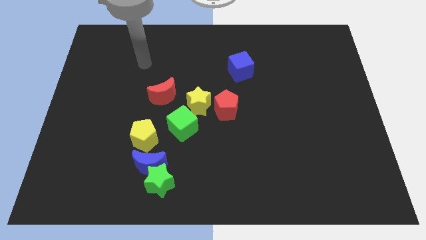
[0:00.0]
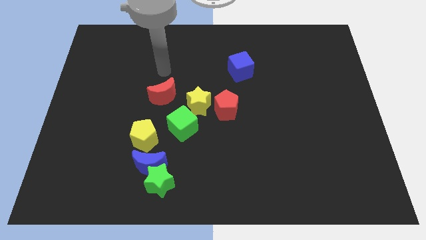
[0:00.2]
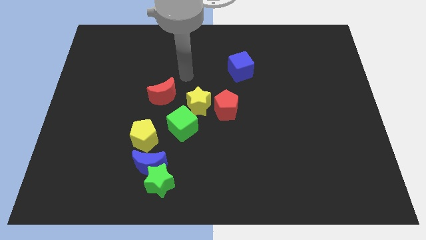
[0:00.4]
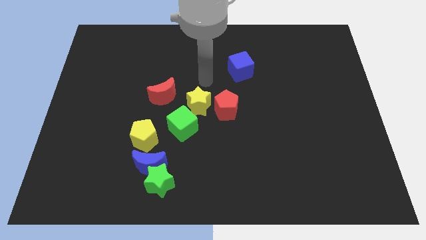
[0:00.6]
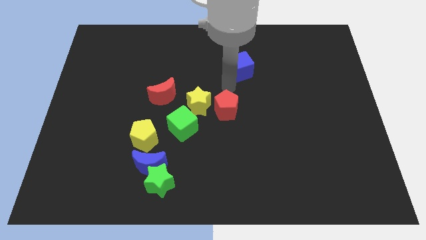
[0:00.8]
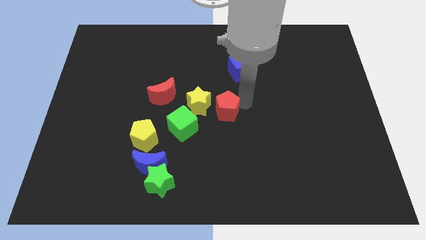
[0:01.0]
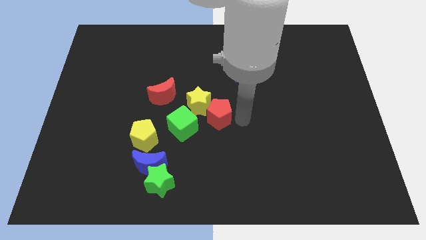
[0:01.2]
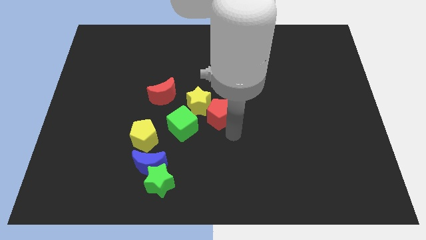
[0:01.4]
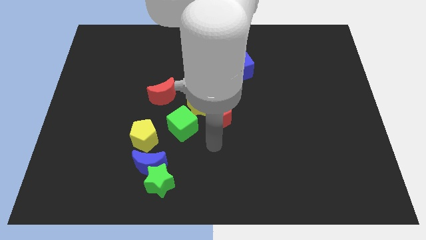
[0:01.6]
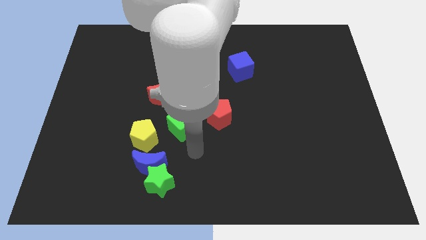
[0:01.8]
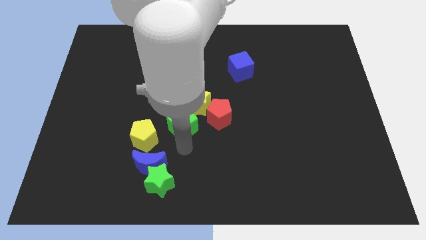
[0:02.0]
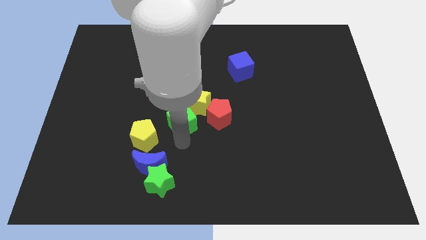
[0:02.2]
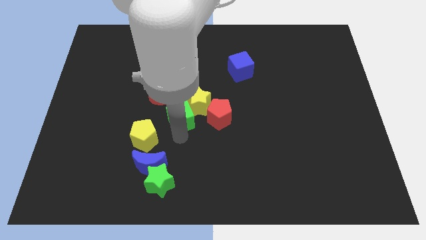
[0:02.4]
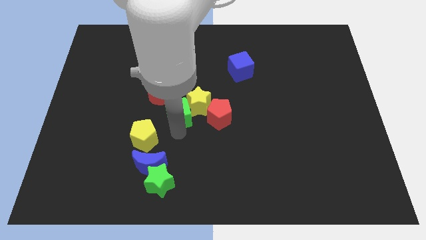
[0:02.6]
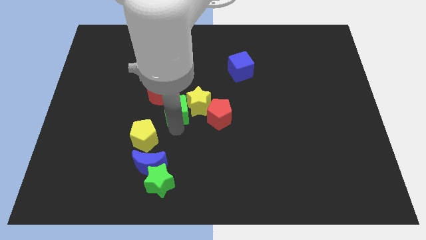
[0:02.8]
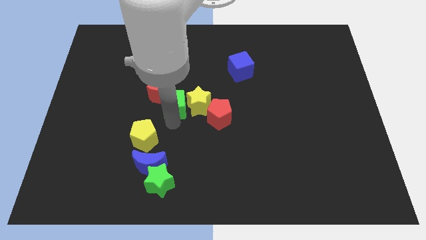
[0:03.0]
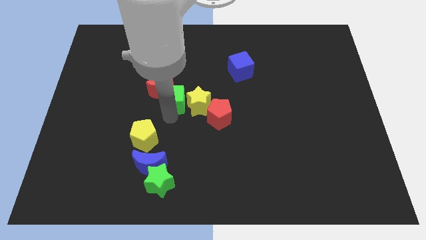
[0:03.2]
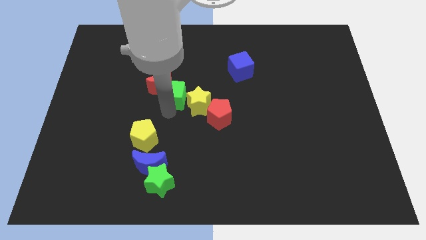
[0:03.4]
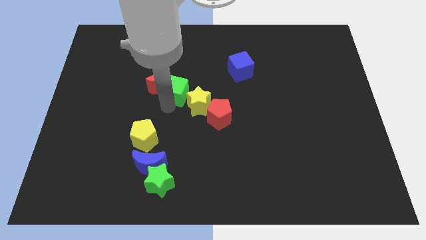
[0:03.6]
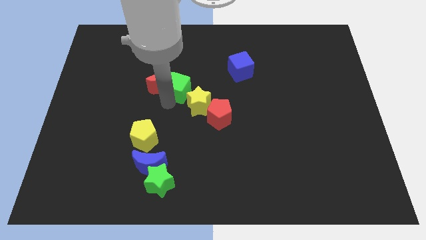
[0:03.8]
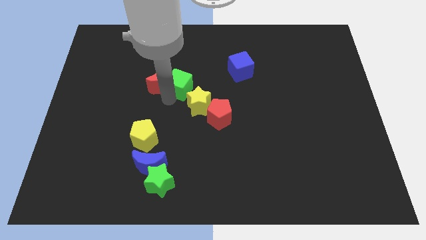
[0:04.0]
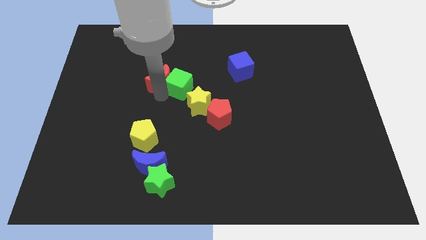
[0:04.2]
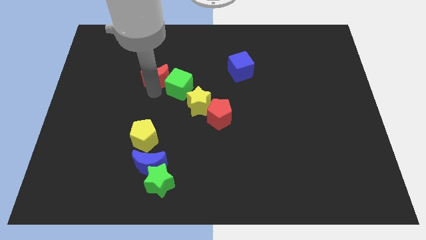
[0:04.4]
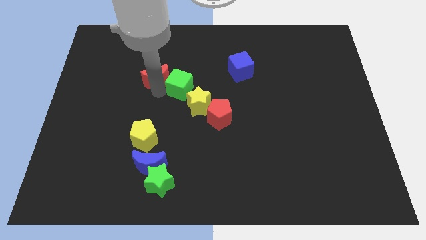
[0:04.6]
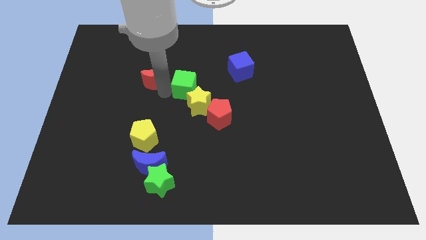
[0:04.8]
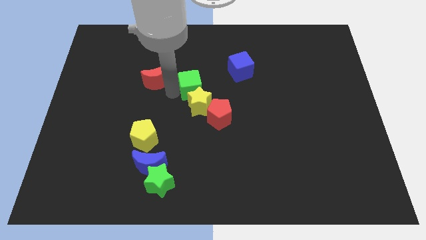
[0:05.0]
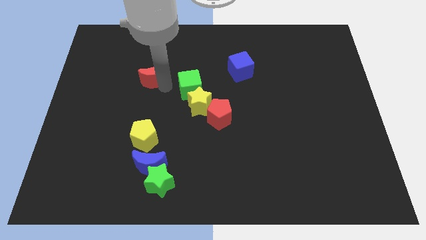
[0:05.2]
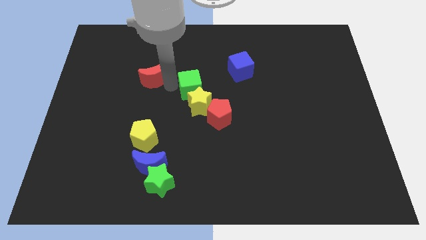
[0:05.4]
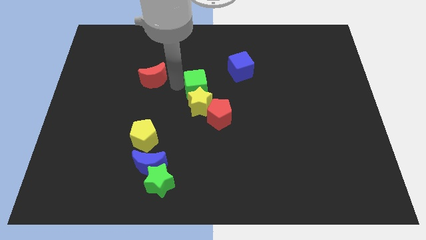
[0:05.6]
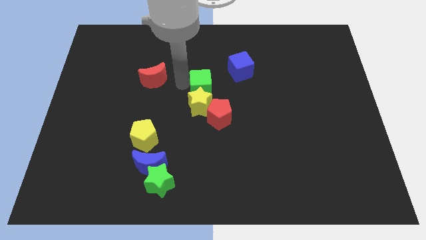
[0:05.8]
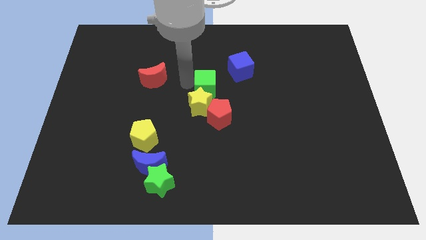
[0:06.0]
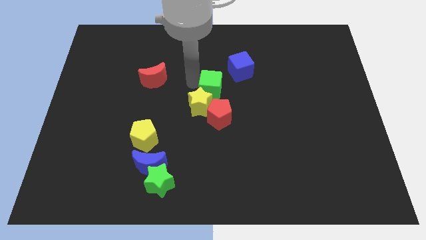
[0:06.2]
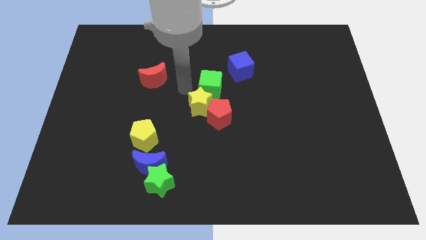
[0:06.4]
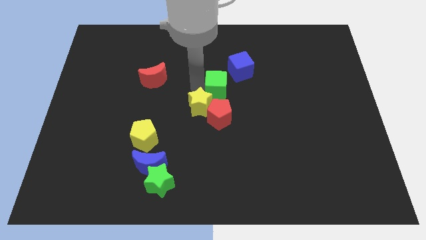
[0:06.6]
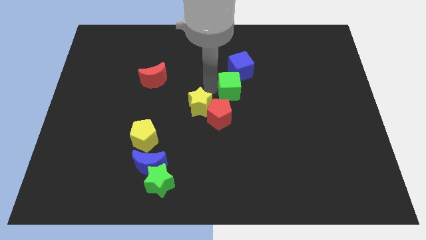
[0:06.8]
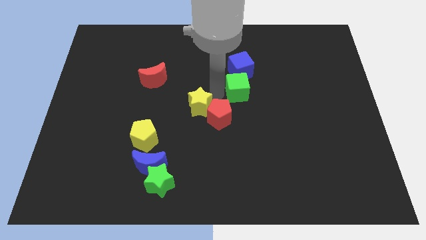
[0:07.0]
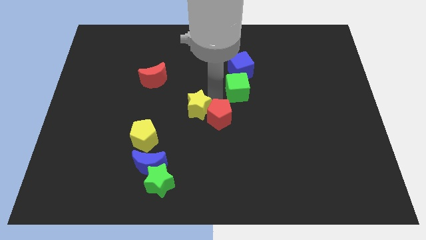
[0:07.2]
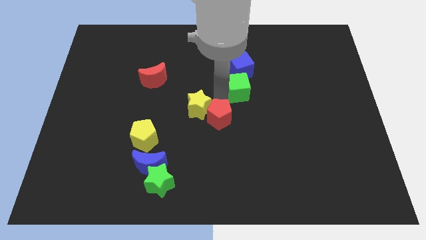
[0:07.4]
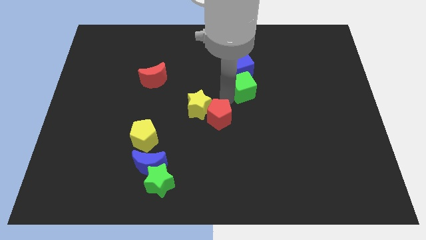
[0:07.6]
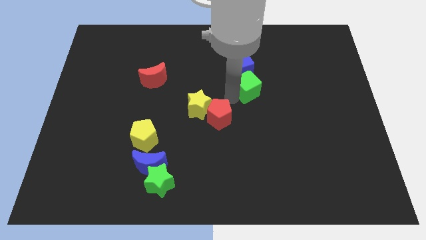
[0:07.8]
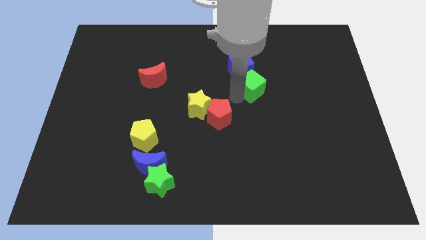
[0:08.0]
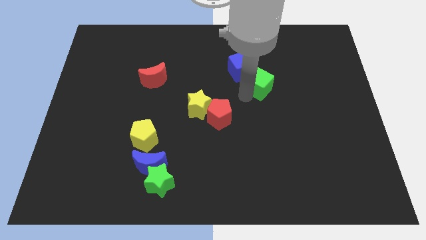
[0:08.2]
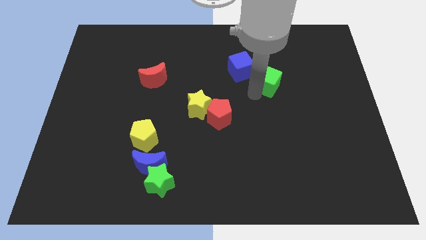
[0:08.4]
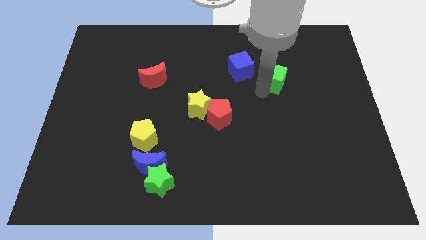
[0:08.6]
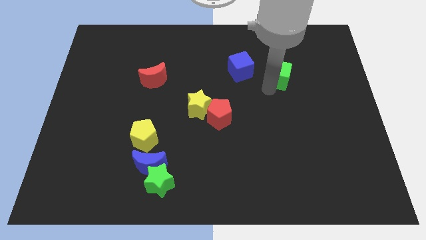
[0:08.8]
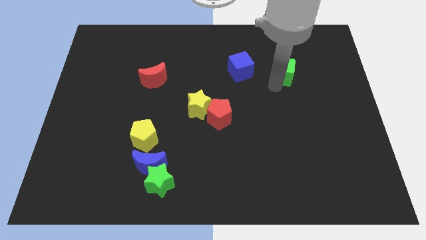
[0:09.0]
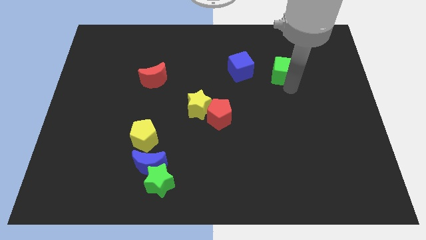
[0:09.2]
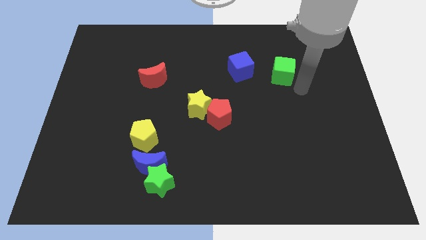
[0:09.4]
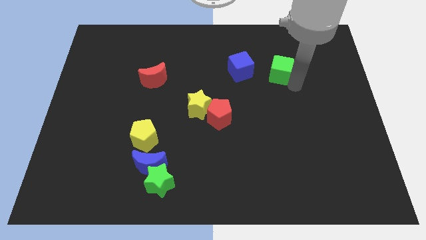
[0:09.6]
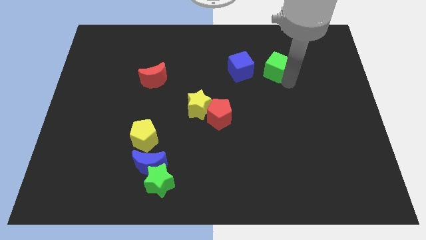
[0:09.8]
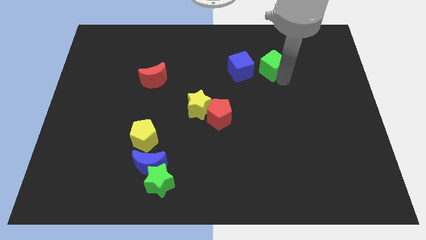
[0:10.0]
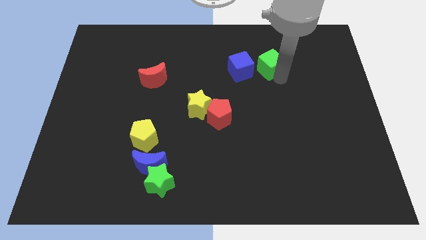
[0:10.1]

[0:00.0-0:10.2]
put the green cube to the top right of the blue cube

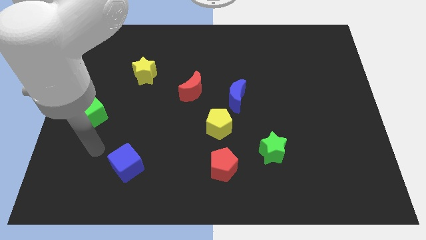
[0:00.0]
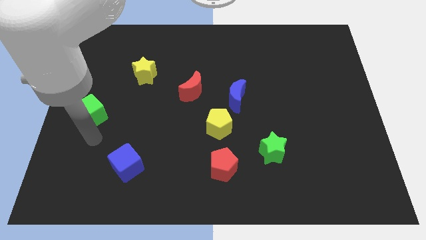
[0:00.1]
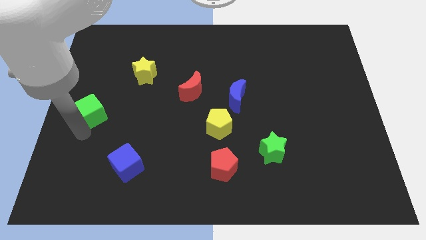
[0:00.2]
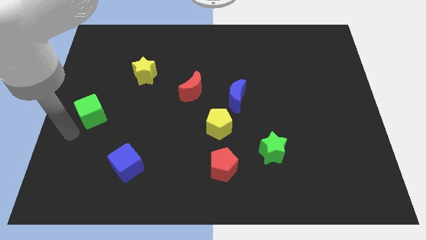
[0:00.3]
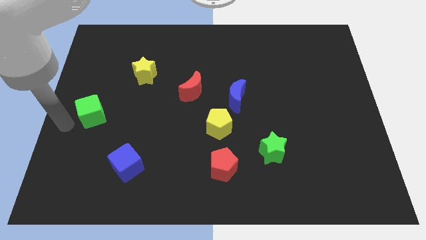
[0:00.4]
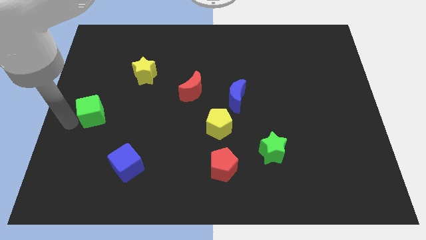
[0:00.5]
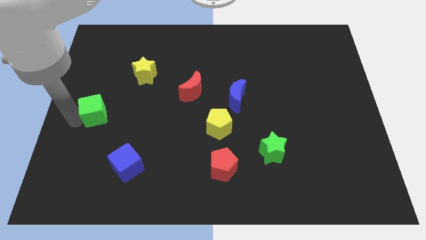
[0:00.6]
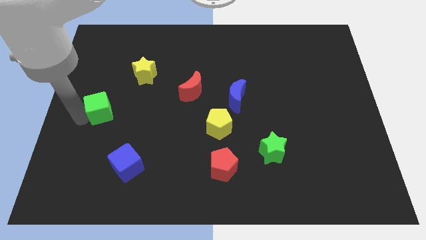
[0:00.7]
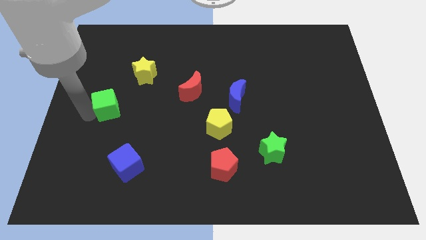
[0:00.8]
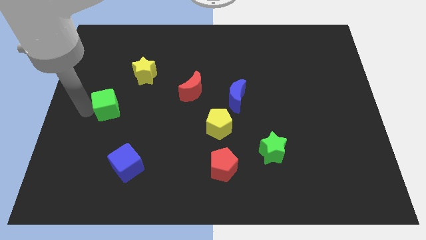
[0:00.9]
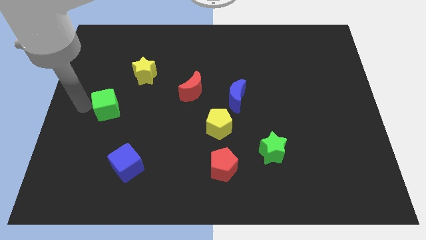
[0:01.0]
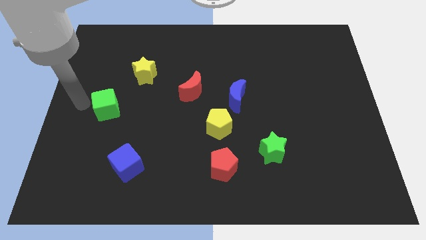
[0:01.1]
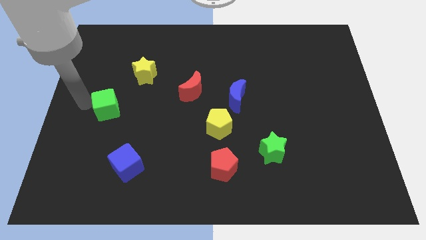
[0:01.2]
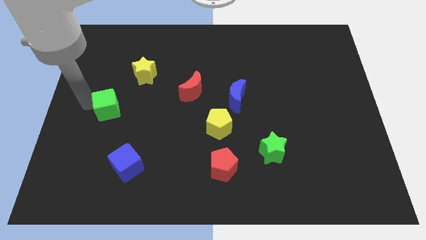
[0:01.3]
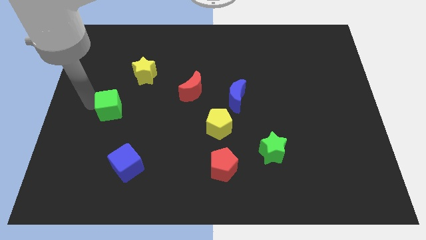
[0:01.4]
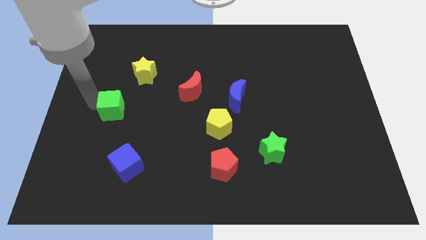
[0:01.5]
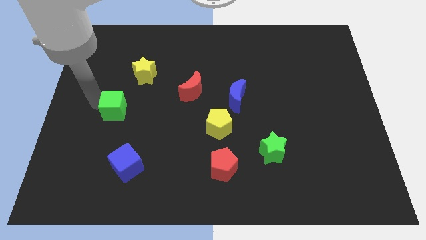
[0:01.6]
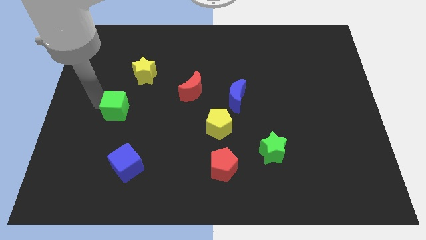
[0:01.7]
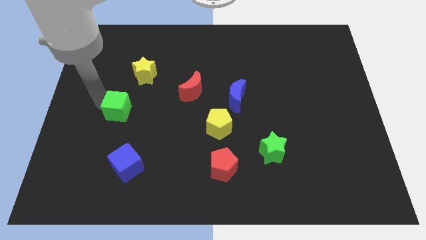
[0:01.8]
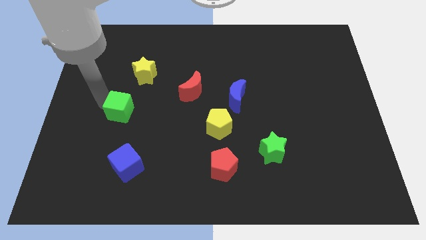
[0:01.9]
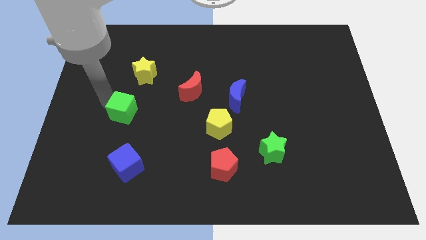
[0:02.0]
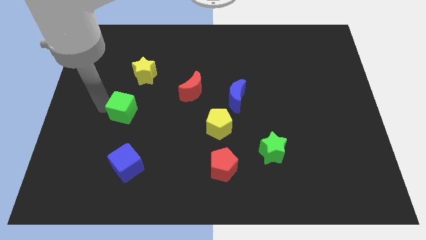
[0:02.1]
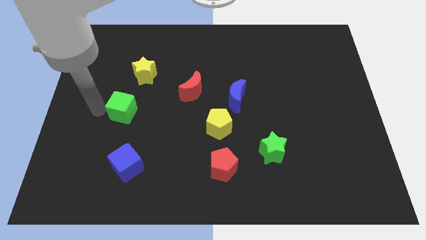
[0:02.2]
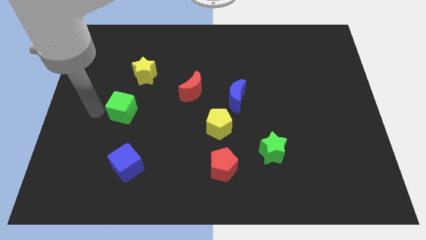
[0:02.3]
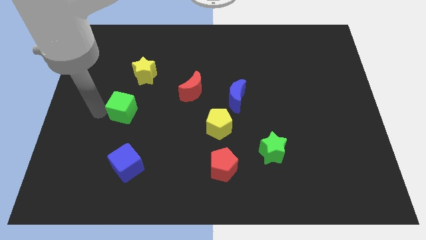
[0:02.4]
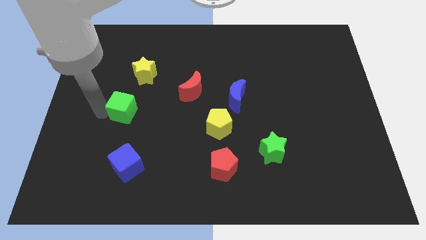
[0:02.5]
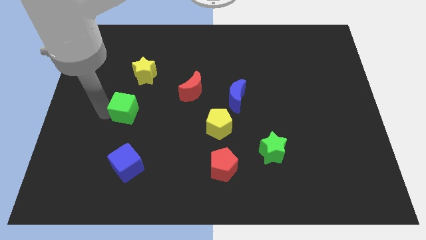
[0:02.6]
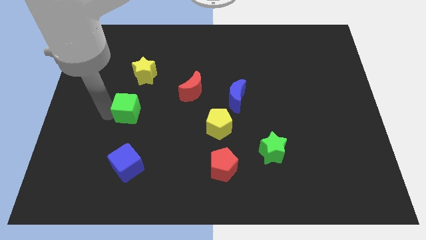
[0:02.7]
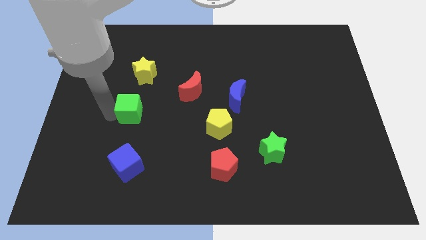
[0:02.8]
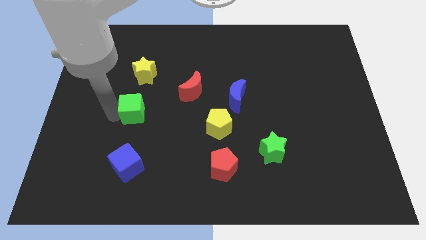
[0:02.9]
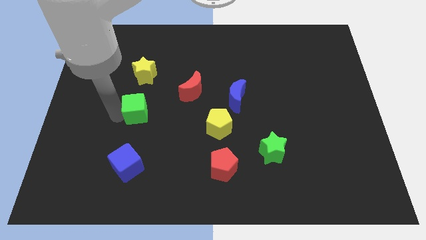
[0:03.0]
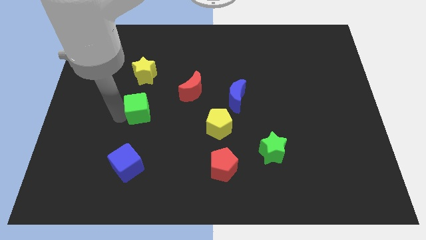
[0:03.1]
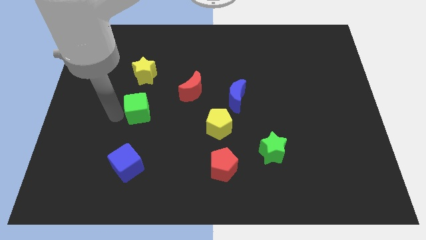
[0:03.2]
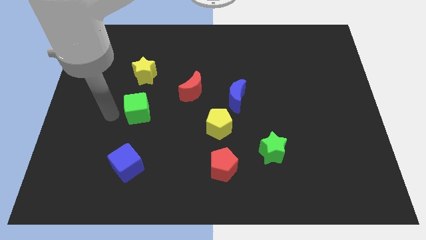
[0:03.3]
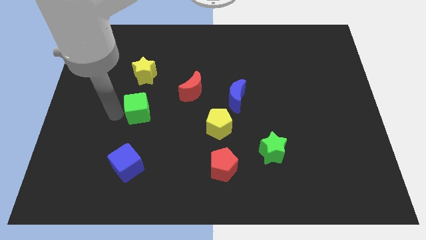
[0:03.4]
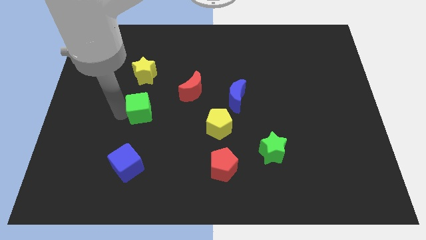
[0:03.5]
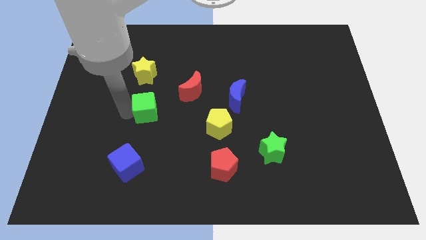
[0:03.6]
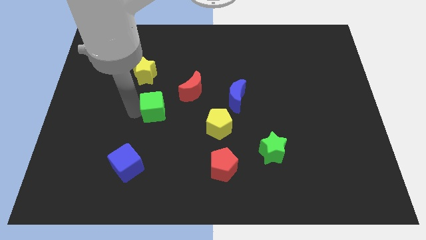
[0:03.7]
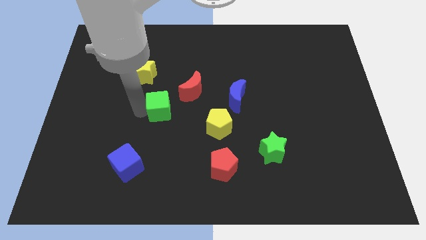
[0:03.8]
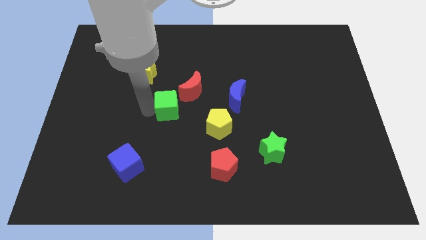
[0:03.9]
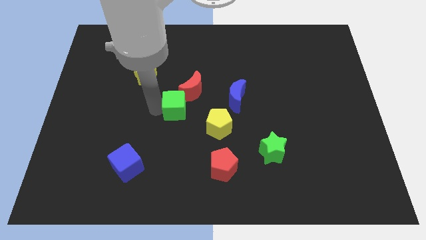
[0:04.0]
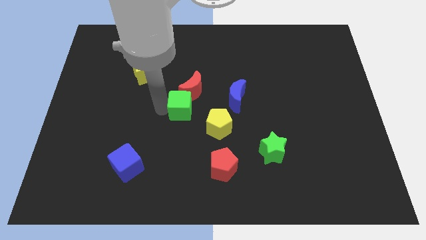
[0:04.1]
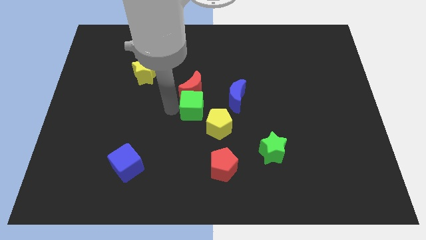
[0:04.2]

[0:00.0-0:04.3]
slide the green cube diagonally down and to the right of the red moon
